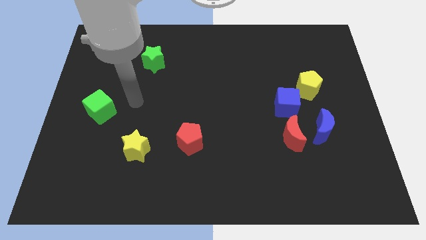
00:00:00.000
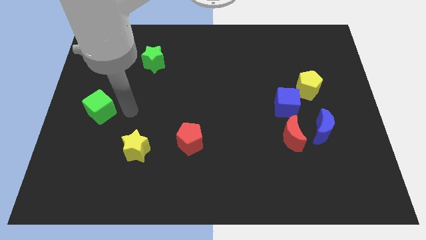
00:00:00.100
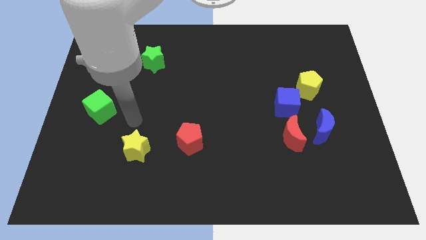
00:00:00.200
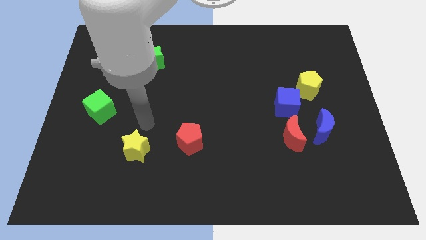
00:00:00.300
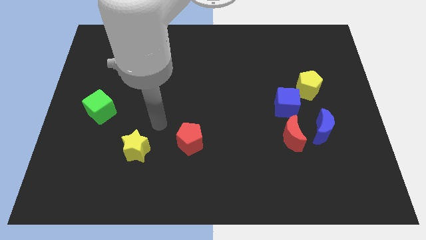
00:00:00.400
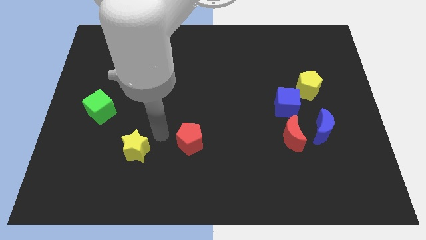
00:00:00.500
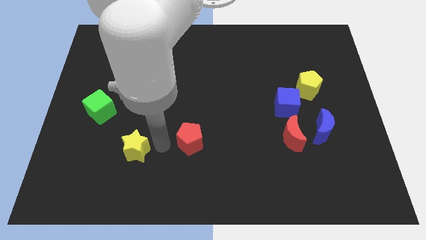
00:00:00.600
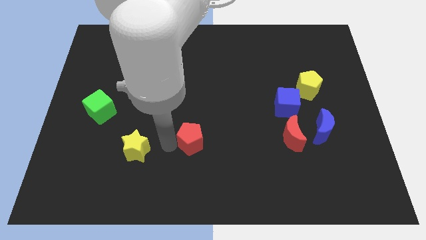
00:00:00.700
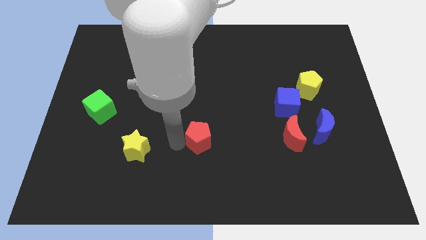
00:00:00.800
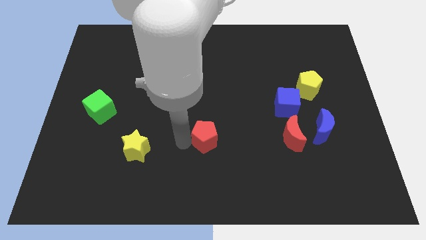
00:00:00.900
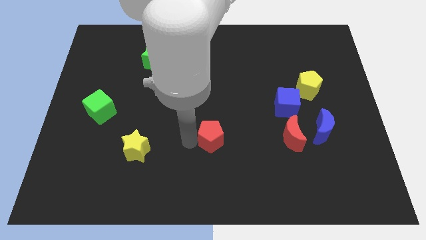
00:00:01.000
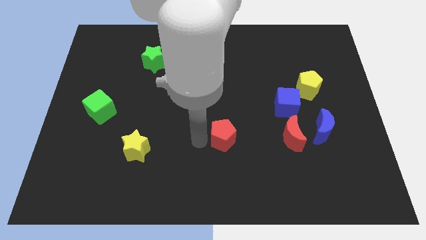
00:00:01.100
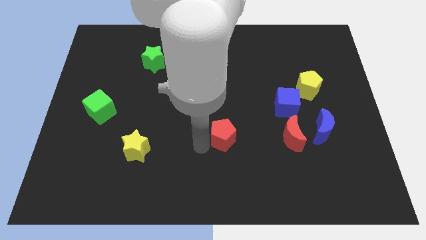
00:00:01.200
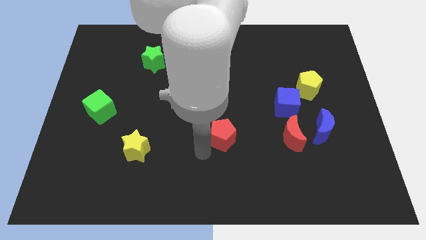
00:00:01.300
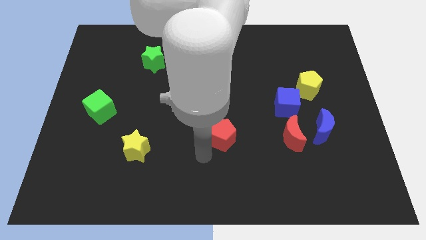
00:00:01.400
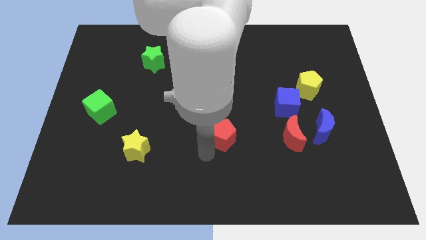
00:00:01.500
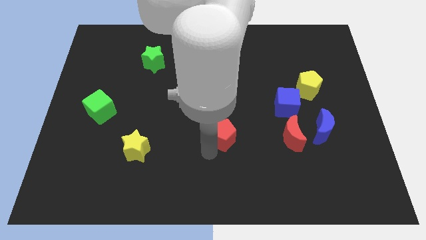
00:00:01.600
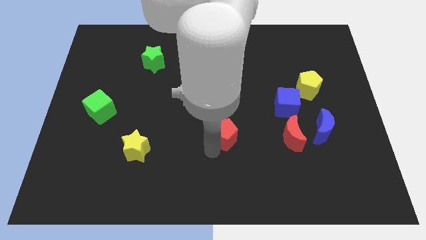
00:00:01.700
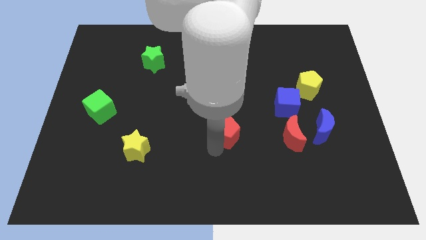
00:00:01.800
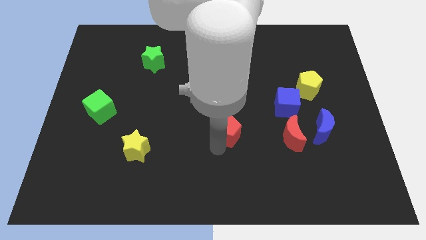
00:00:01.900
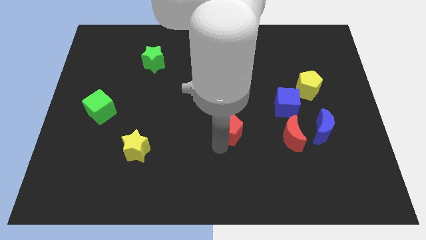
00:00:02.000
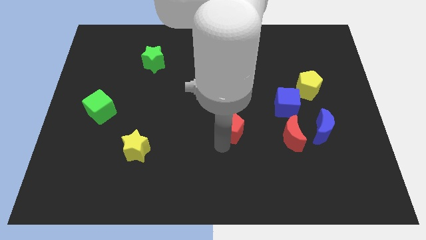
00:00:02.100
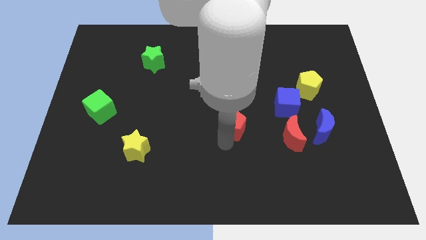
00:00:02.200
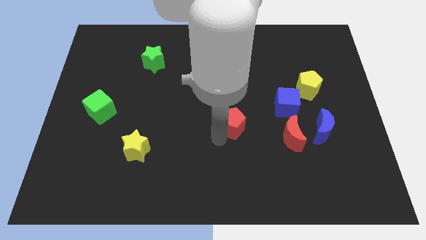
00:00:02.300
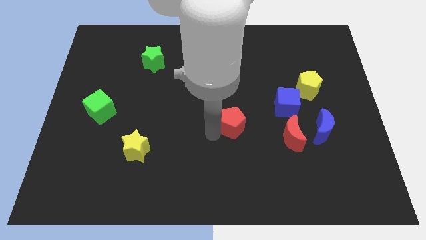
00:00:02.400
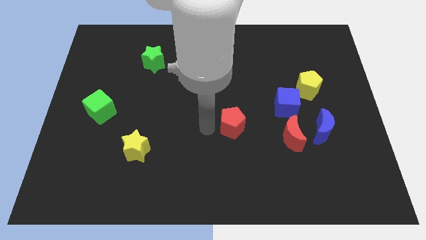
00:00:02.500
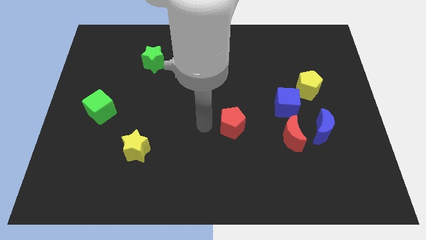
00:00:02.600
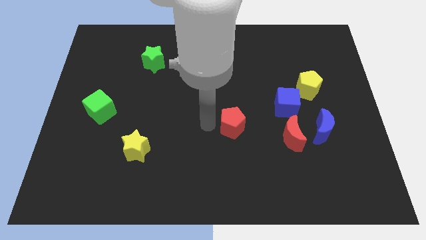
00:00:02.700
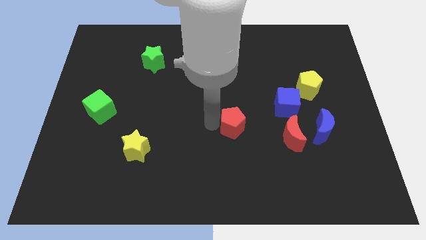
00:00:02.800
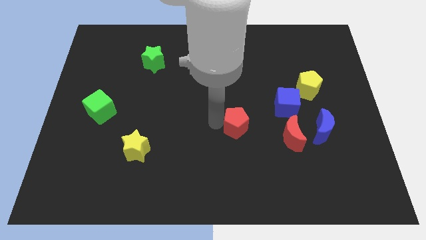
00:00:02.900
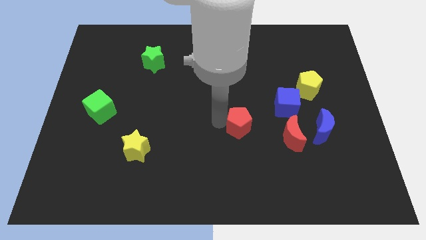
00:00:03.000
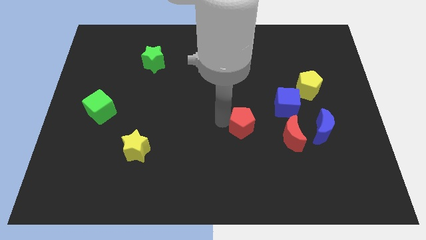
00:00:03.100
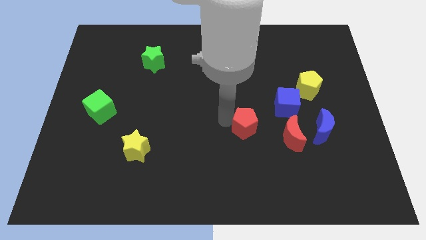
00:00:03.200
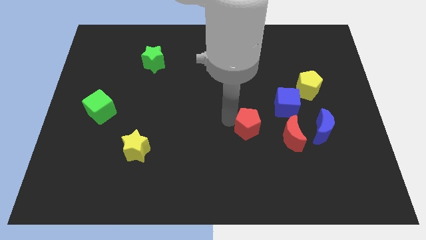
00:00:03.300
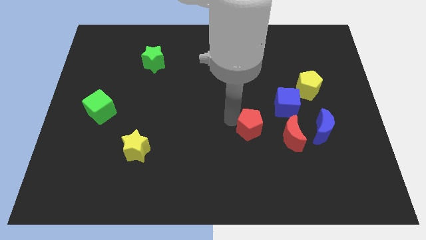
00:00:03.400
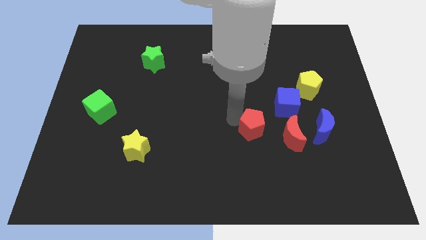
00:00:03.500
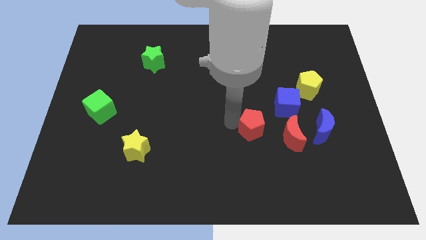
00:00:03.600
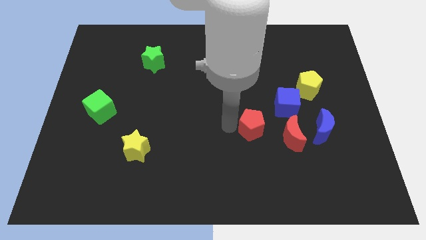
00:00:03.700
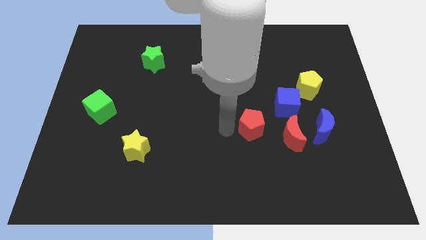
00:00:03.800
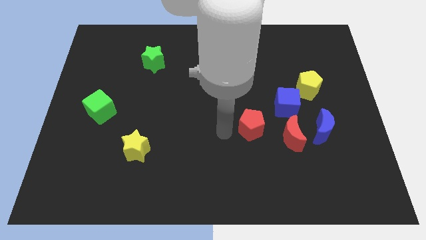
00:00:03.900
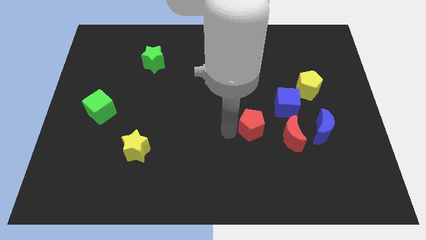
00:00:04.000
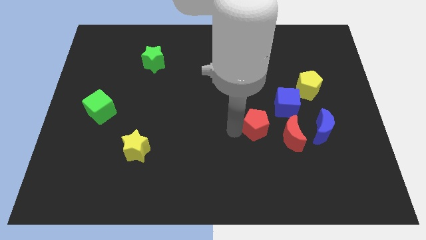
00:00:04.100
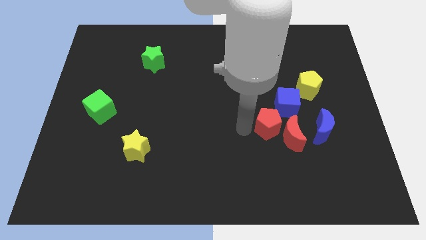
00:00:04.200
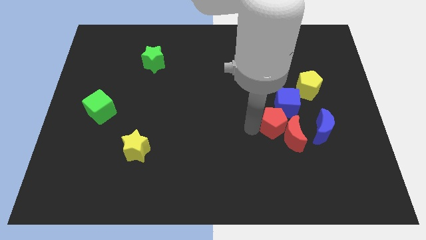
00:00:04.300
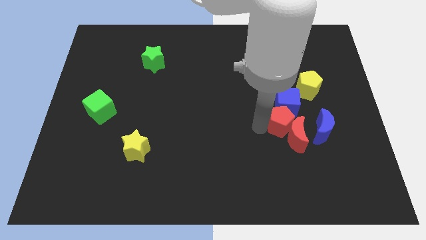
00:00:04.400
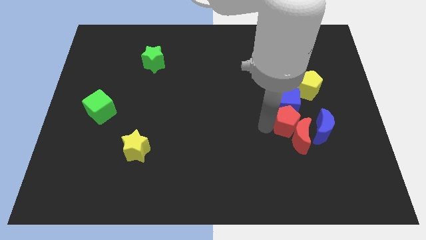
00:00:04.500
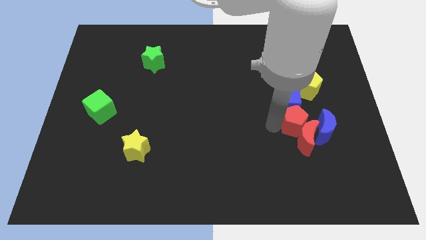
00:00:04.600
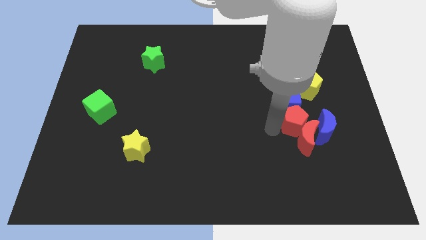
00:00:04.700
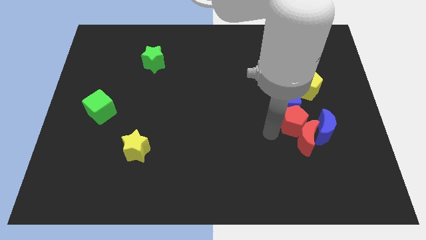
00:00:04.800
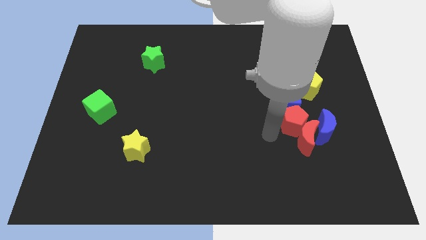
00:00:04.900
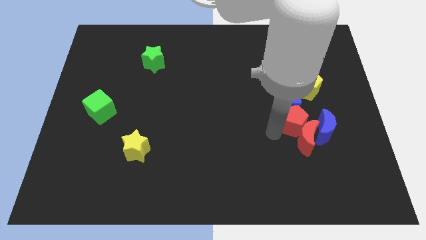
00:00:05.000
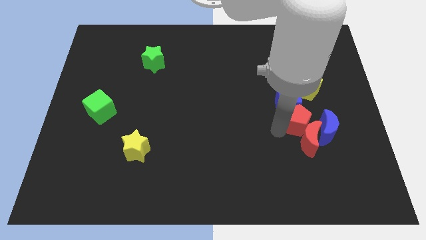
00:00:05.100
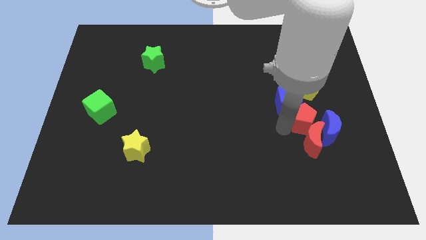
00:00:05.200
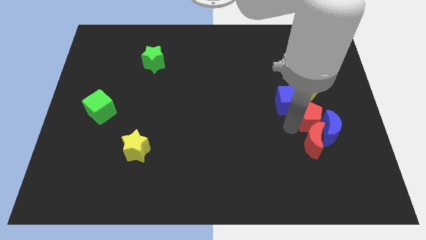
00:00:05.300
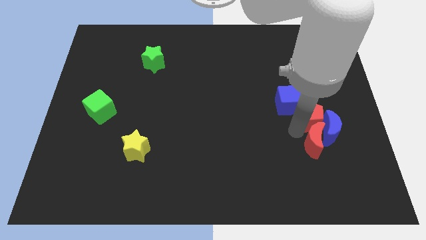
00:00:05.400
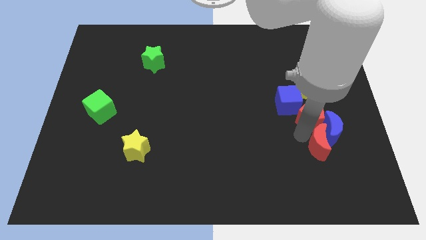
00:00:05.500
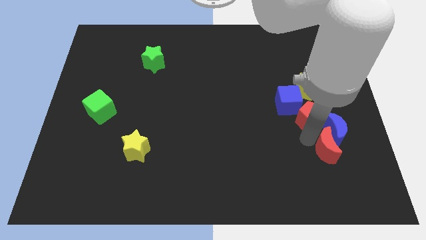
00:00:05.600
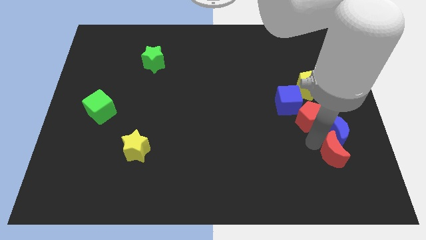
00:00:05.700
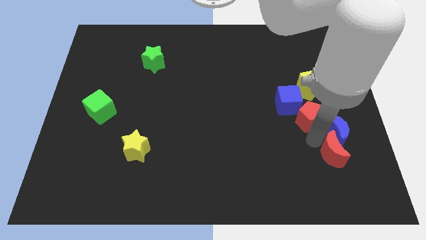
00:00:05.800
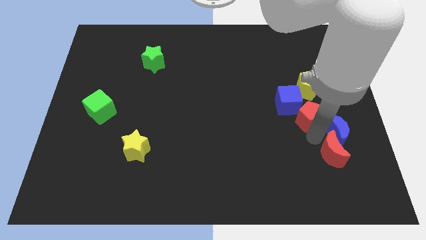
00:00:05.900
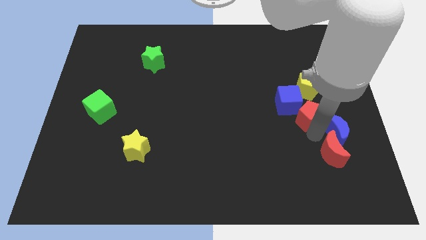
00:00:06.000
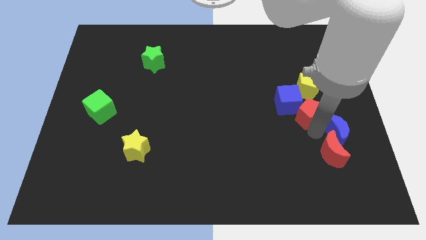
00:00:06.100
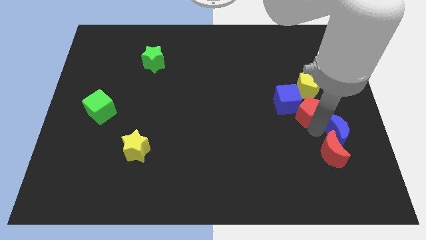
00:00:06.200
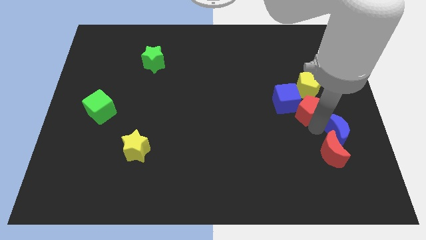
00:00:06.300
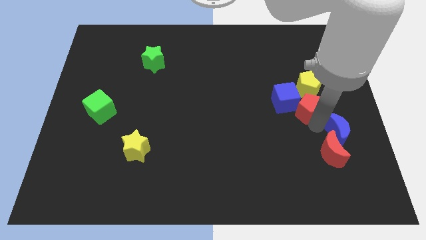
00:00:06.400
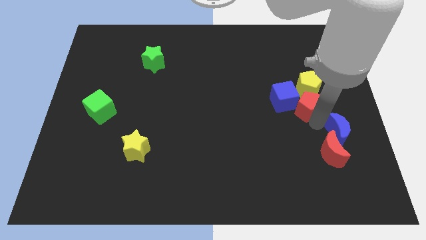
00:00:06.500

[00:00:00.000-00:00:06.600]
slide the red pentagon next to the yellow pentagon

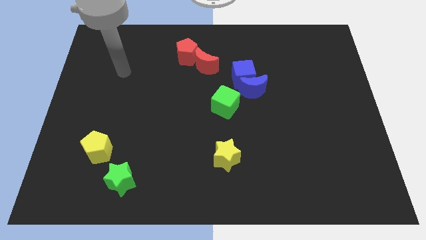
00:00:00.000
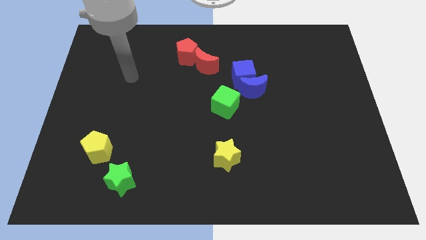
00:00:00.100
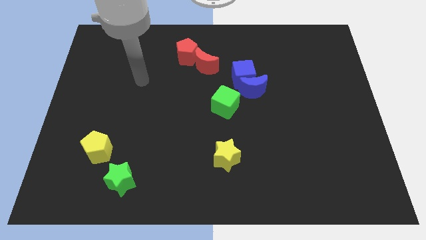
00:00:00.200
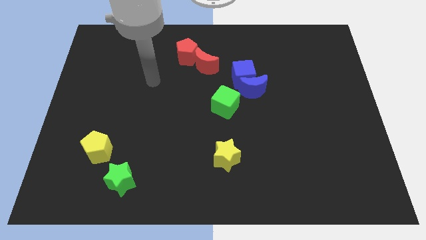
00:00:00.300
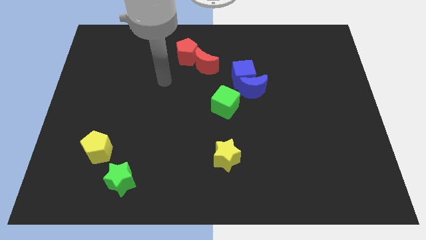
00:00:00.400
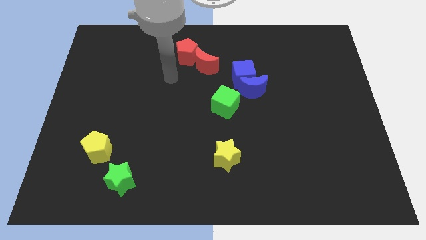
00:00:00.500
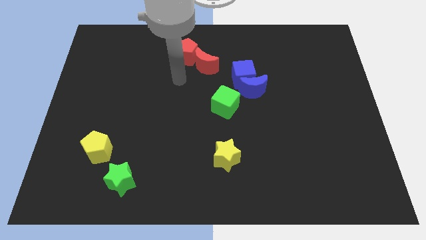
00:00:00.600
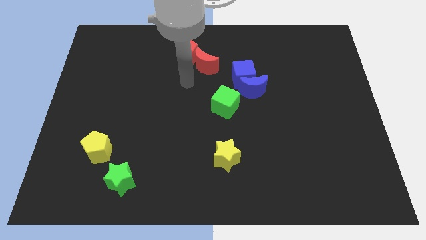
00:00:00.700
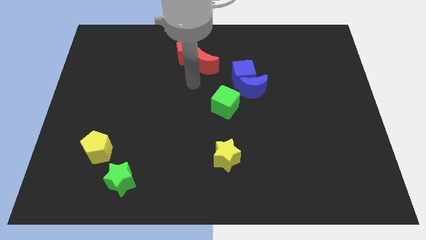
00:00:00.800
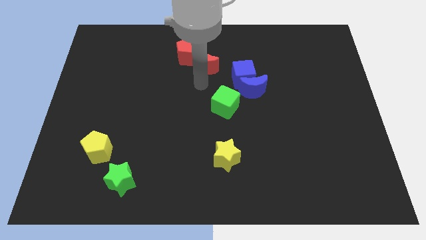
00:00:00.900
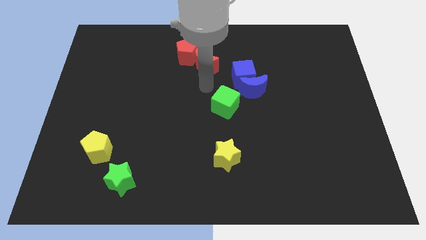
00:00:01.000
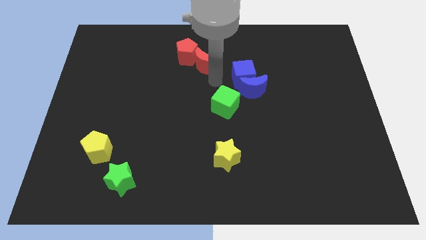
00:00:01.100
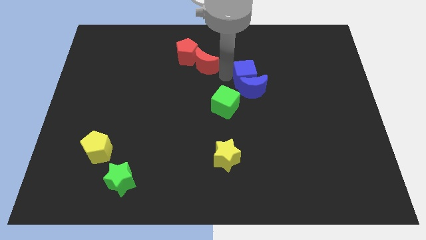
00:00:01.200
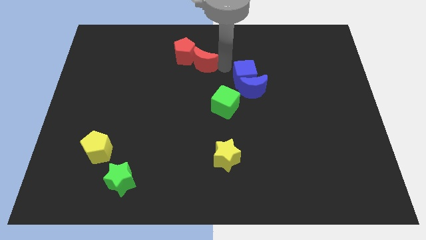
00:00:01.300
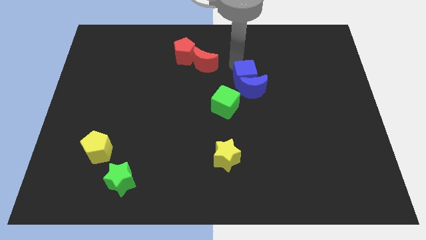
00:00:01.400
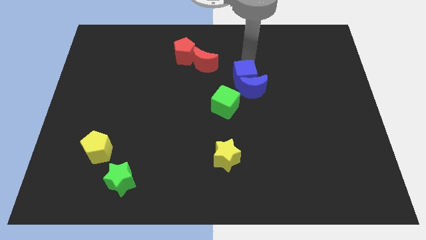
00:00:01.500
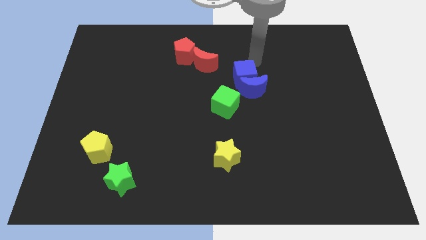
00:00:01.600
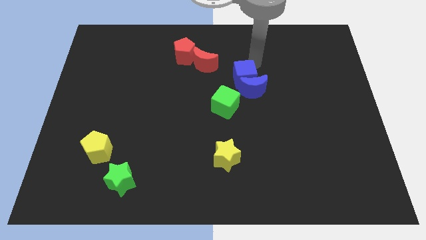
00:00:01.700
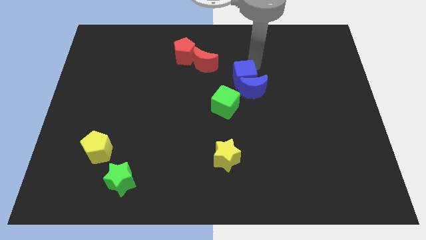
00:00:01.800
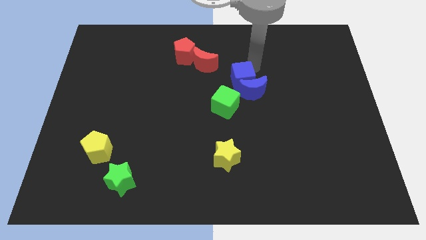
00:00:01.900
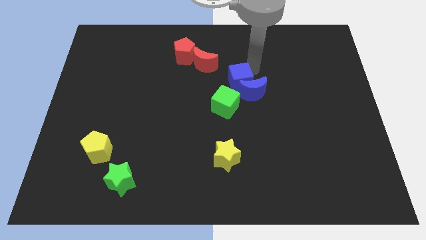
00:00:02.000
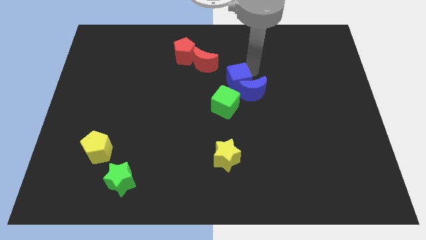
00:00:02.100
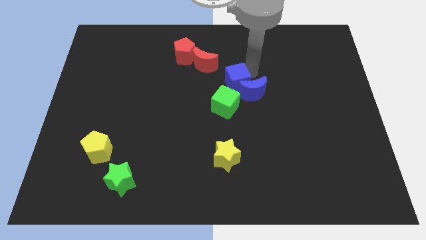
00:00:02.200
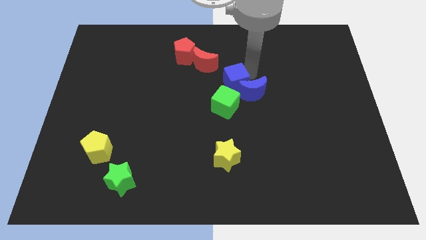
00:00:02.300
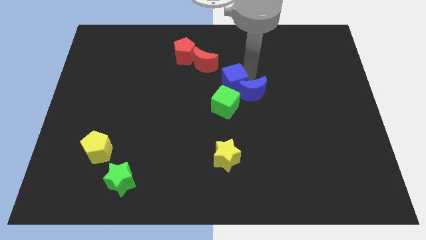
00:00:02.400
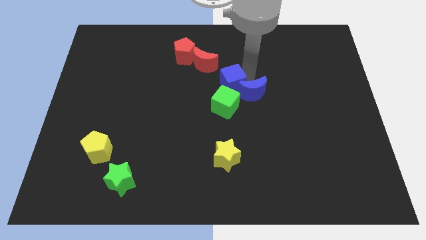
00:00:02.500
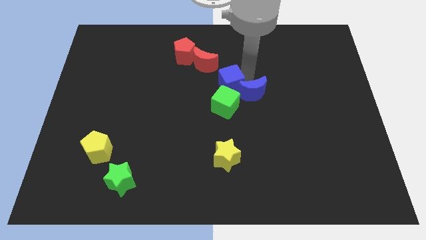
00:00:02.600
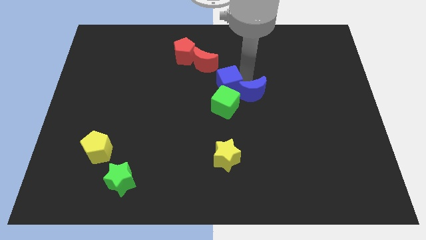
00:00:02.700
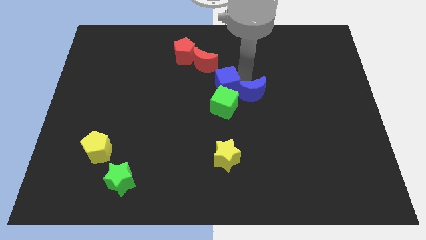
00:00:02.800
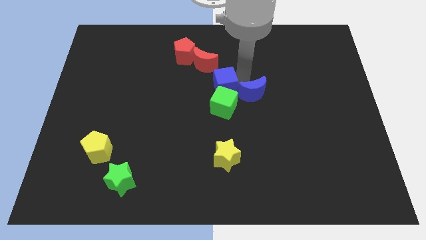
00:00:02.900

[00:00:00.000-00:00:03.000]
push the blue cube close to the green cube
